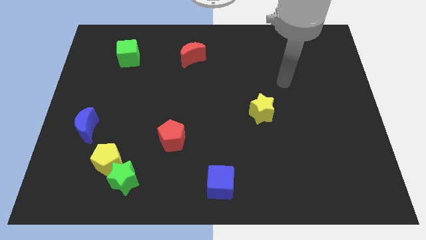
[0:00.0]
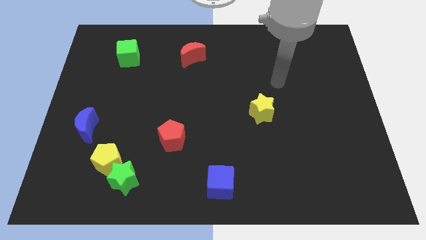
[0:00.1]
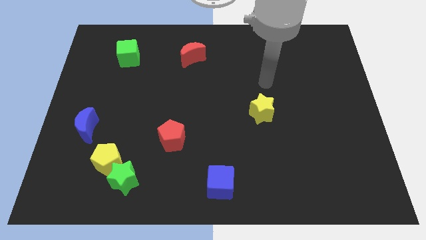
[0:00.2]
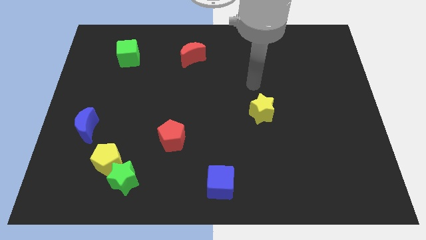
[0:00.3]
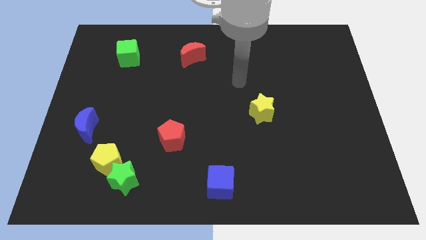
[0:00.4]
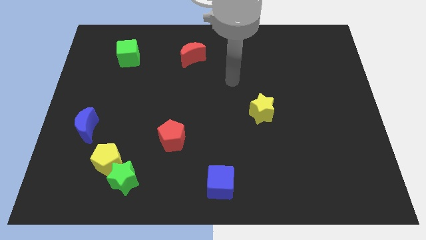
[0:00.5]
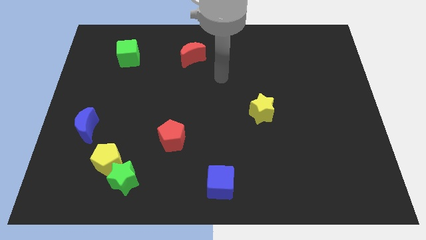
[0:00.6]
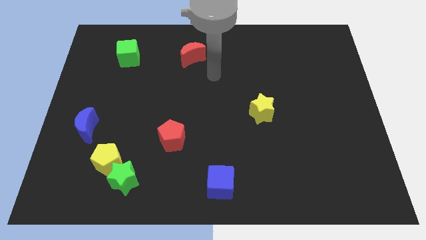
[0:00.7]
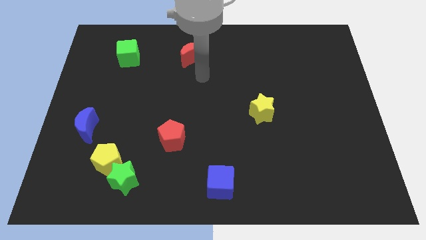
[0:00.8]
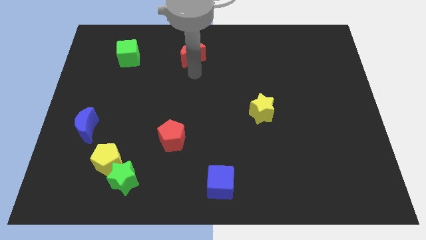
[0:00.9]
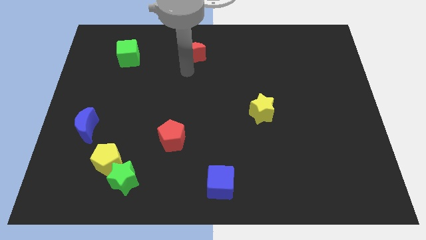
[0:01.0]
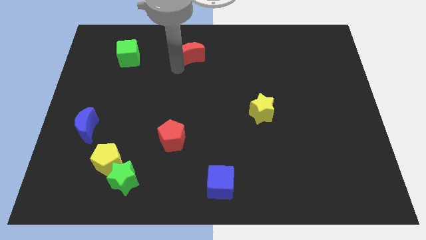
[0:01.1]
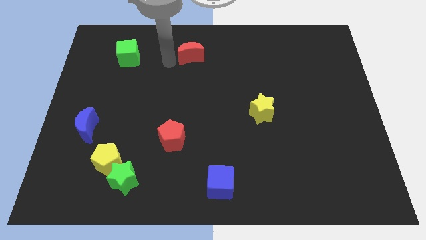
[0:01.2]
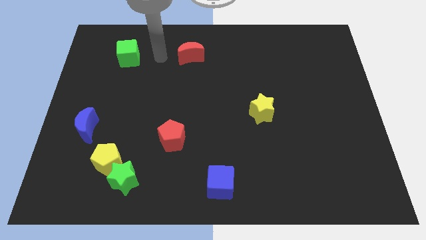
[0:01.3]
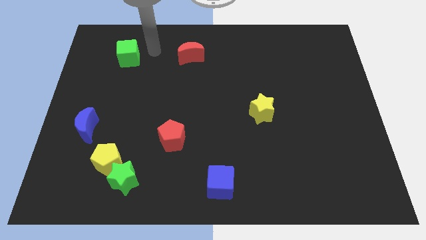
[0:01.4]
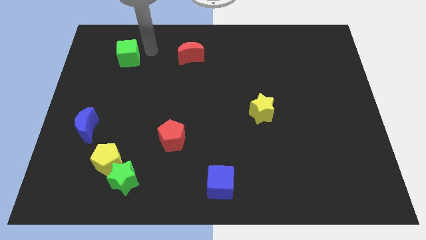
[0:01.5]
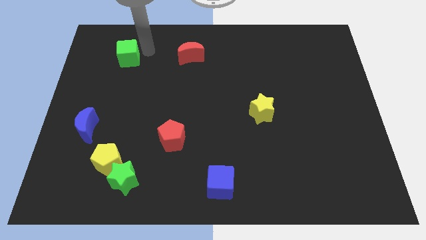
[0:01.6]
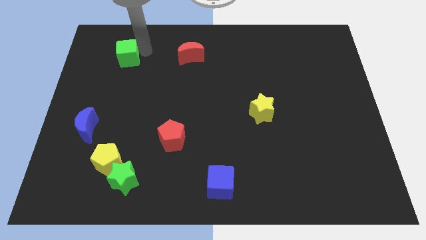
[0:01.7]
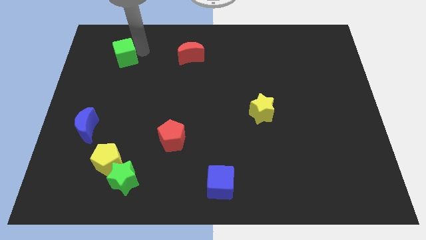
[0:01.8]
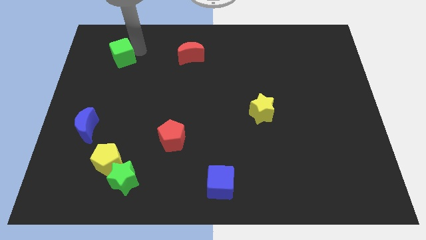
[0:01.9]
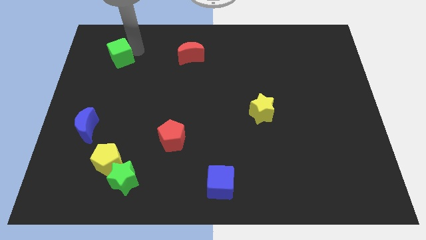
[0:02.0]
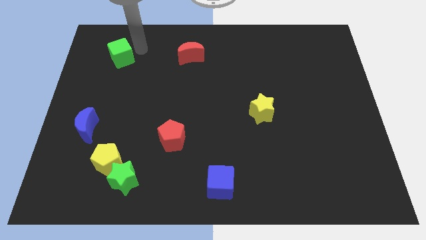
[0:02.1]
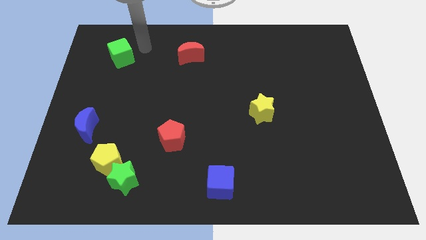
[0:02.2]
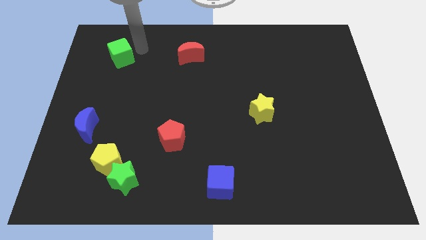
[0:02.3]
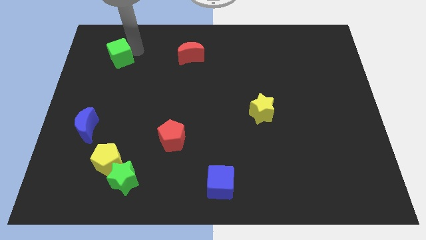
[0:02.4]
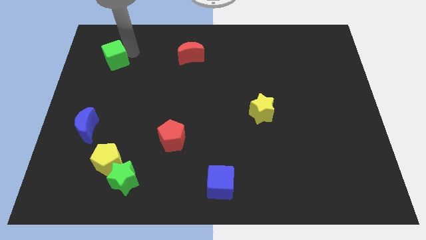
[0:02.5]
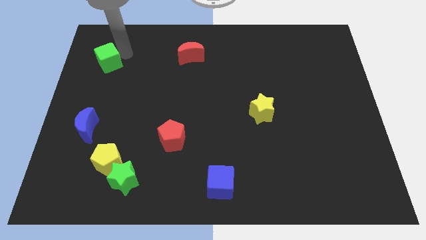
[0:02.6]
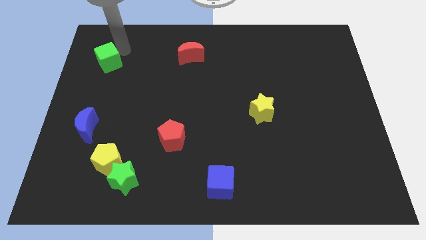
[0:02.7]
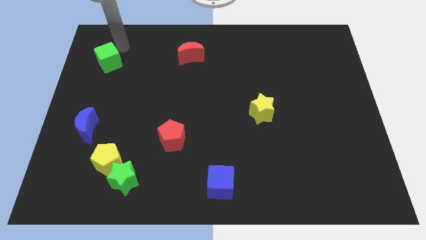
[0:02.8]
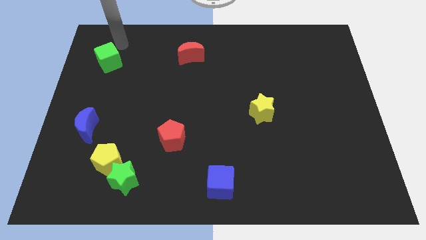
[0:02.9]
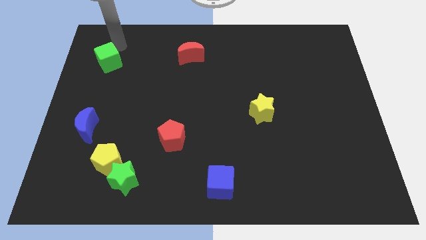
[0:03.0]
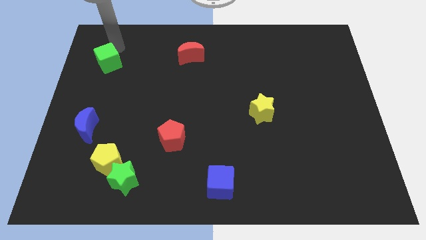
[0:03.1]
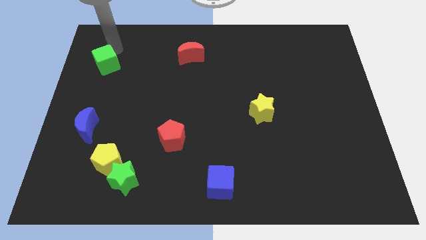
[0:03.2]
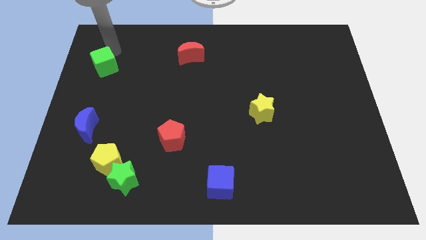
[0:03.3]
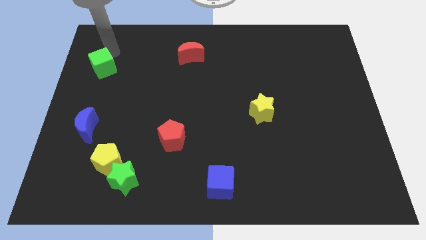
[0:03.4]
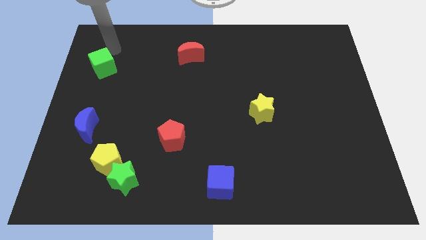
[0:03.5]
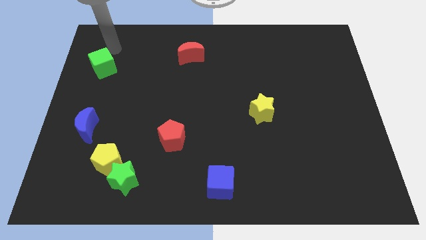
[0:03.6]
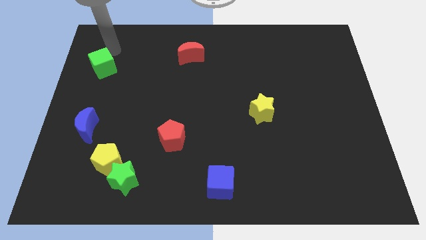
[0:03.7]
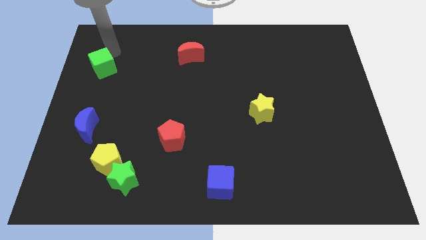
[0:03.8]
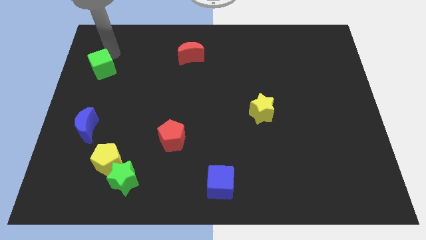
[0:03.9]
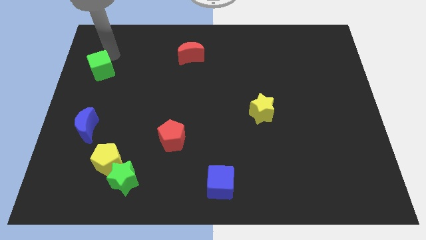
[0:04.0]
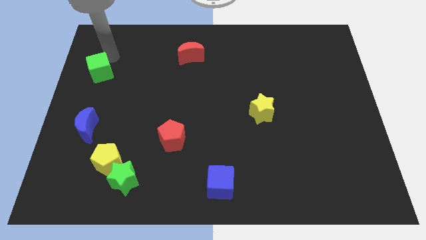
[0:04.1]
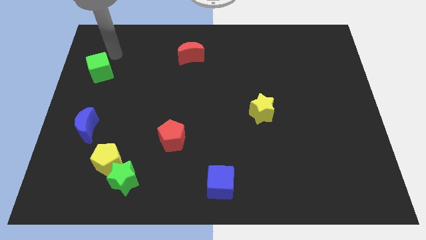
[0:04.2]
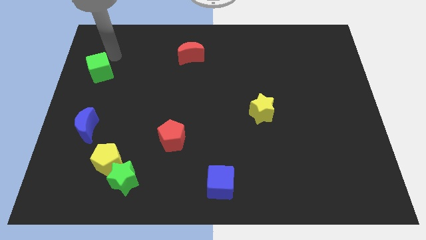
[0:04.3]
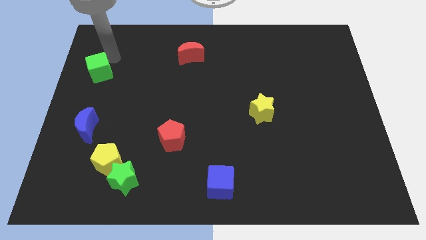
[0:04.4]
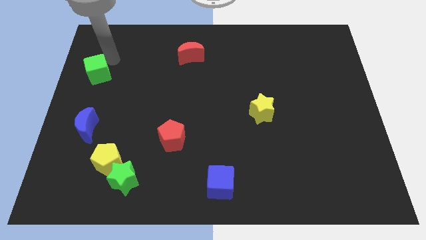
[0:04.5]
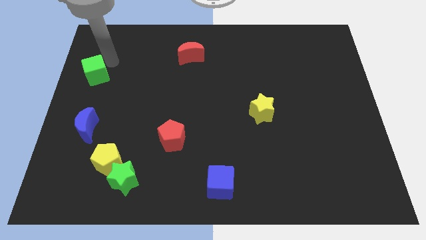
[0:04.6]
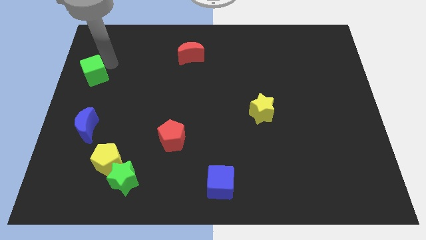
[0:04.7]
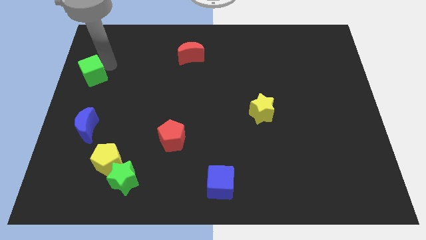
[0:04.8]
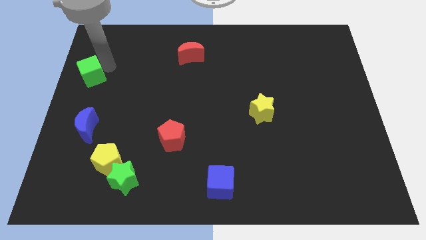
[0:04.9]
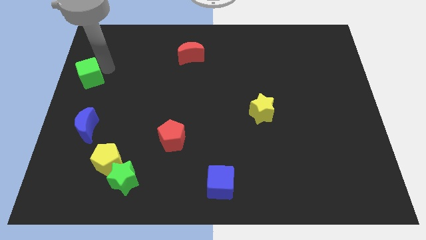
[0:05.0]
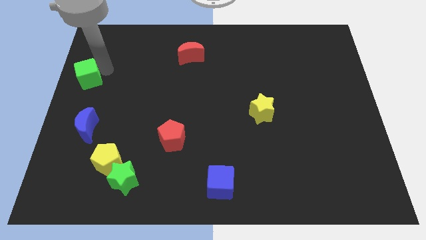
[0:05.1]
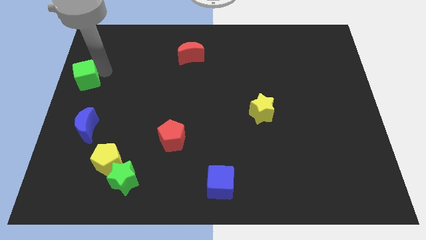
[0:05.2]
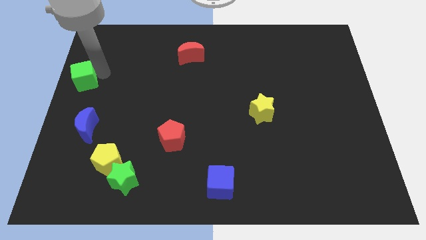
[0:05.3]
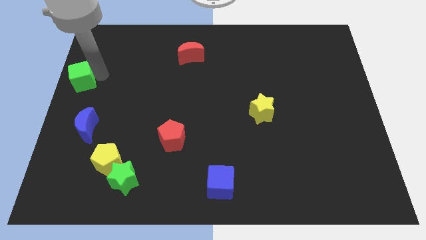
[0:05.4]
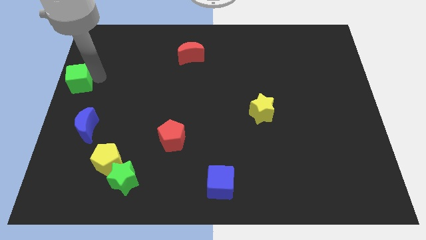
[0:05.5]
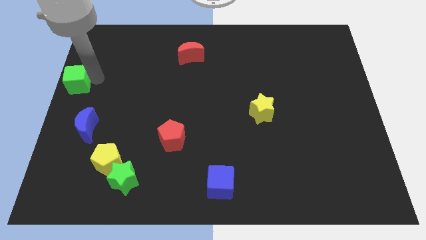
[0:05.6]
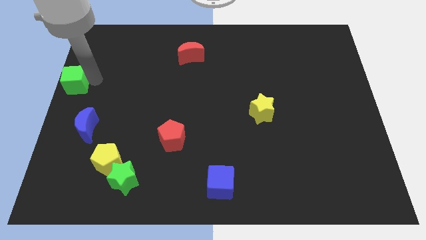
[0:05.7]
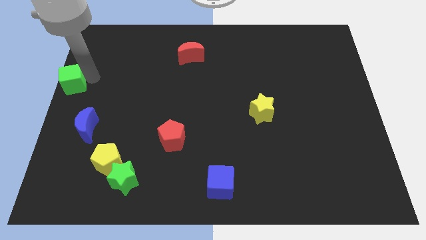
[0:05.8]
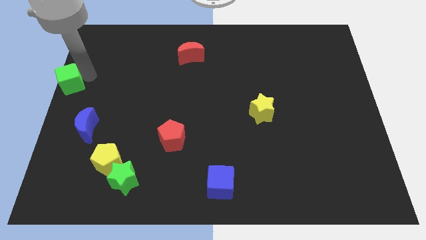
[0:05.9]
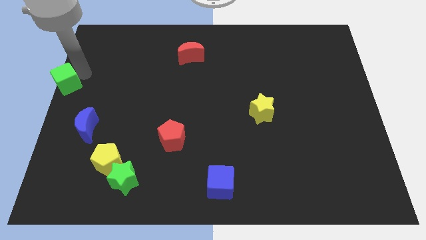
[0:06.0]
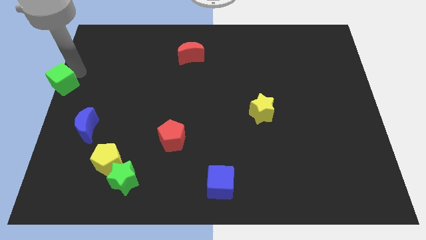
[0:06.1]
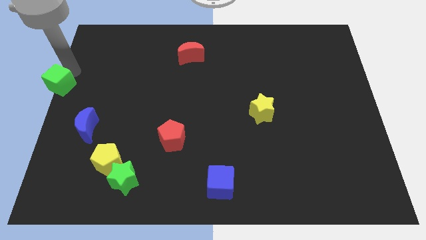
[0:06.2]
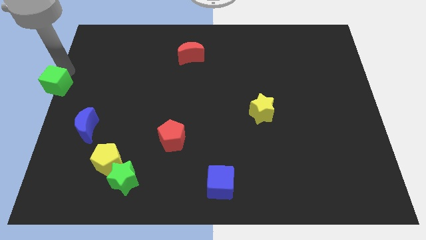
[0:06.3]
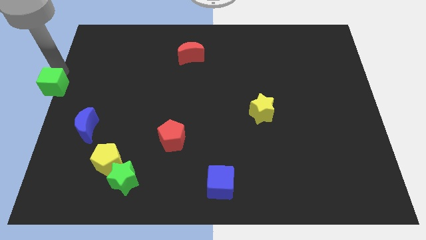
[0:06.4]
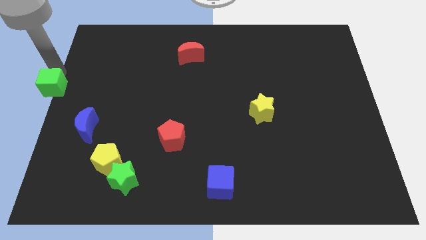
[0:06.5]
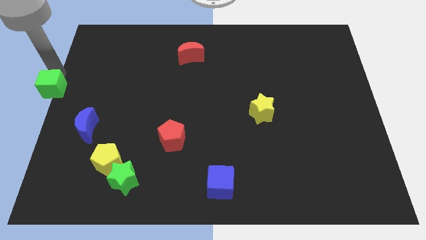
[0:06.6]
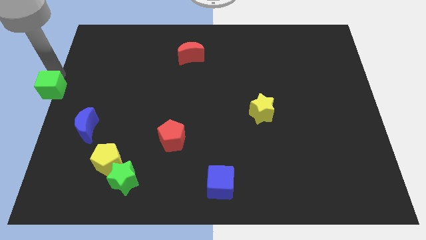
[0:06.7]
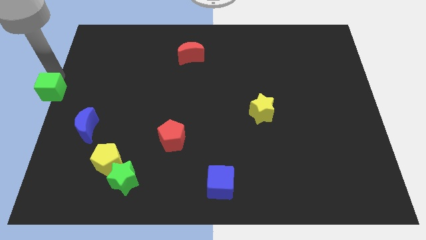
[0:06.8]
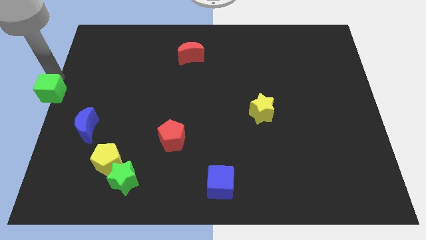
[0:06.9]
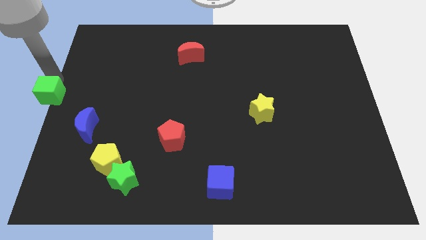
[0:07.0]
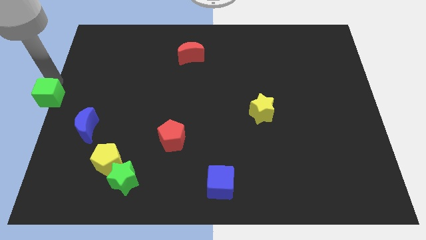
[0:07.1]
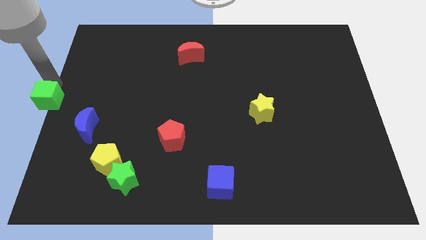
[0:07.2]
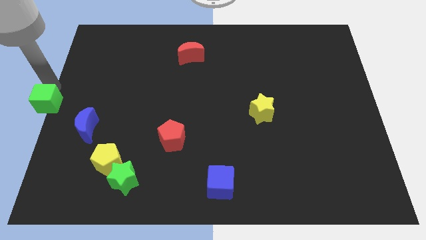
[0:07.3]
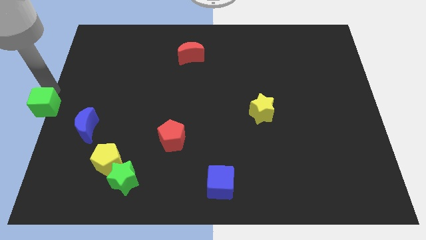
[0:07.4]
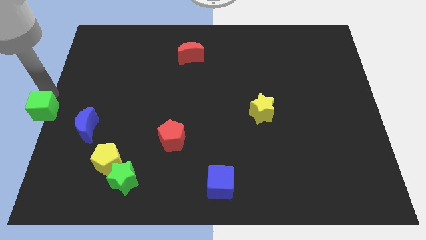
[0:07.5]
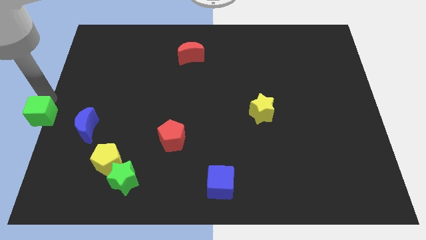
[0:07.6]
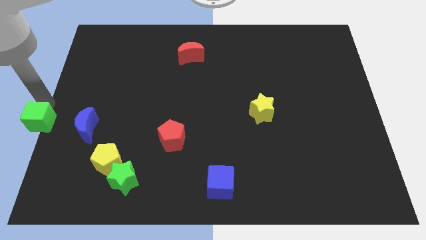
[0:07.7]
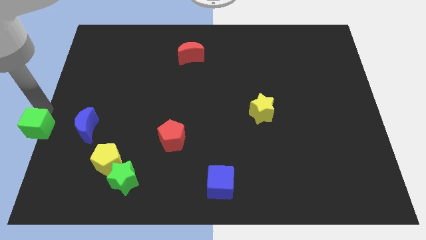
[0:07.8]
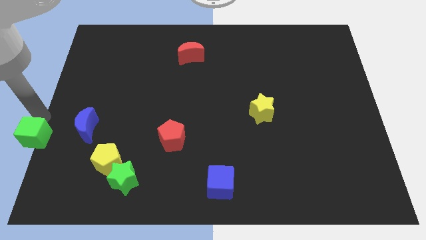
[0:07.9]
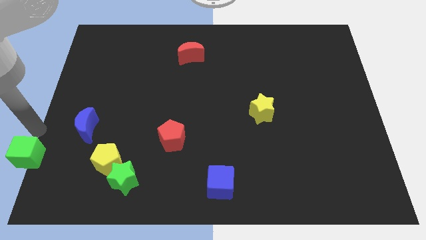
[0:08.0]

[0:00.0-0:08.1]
slide the green cube to the bottom left of the board

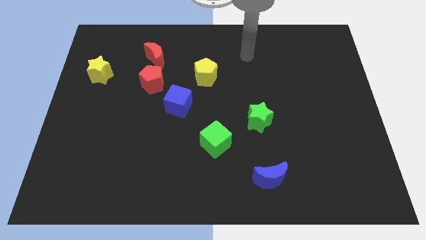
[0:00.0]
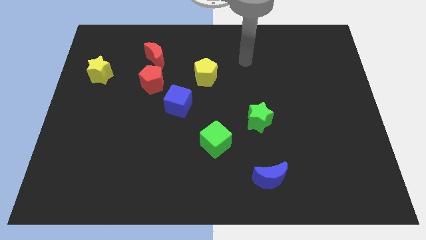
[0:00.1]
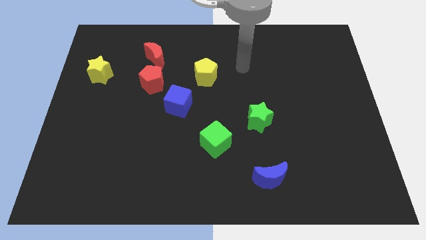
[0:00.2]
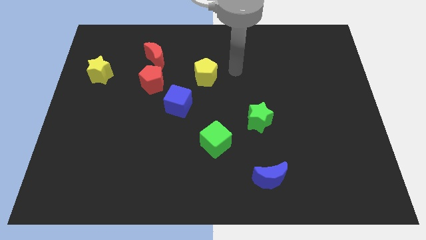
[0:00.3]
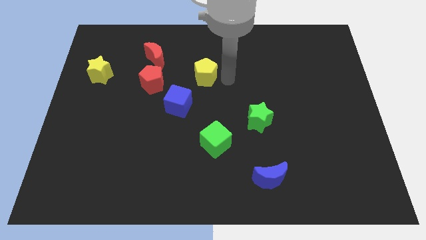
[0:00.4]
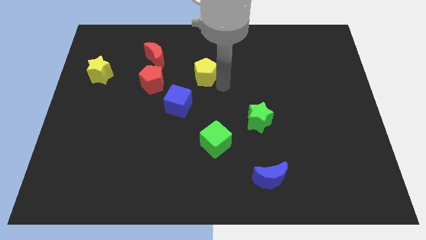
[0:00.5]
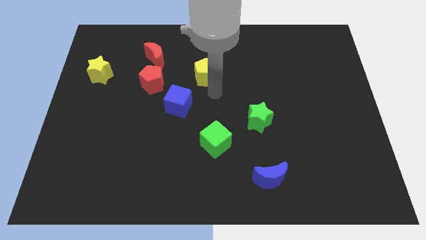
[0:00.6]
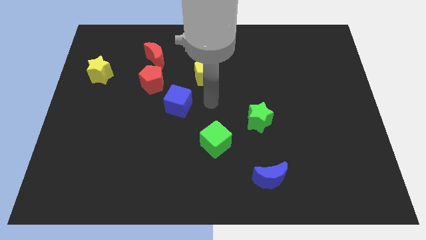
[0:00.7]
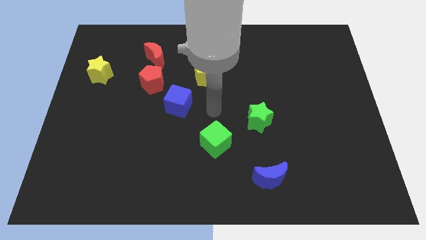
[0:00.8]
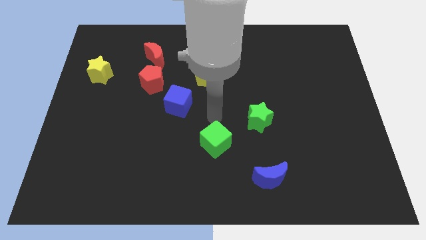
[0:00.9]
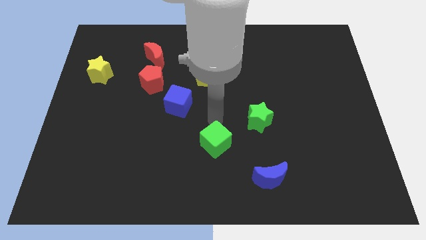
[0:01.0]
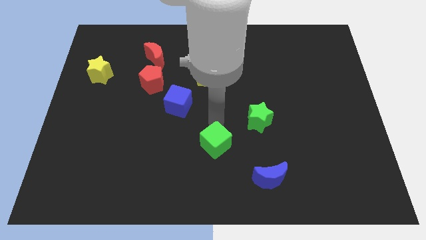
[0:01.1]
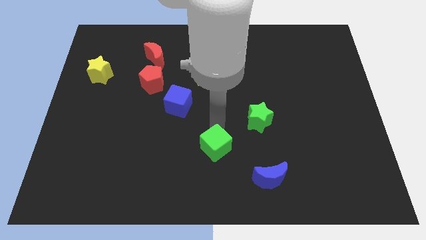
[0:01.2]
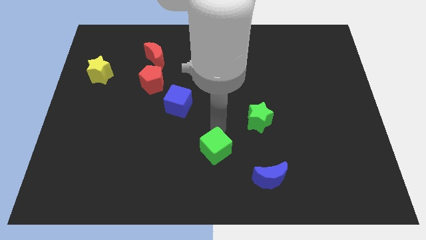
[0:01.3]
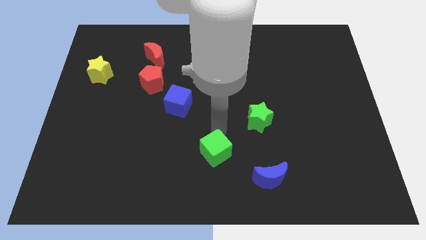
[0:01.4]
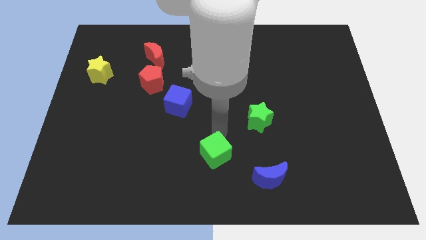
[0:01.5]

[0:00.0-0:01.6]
slide the green cube to the bottom
